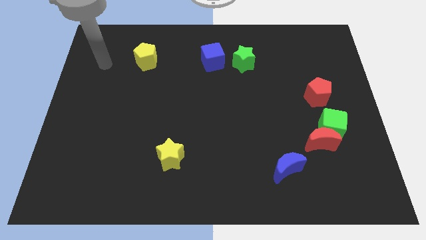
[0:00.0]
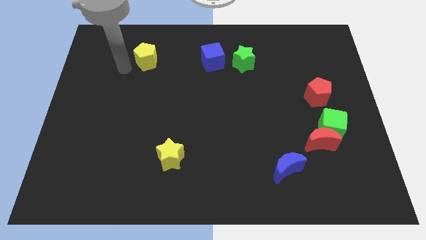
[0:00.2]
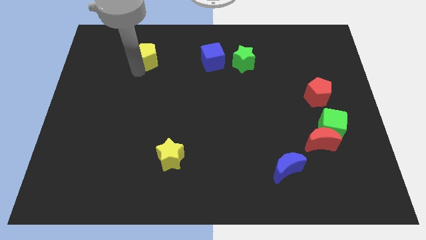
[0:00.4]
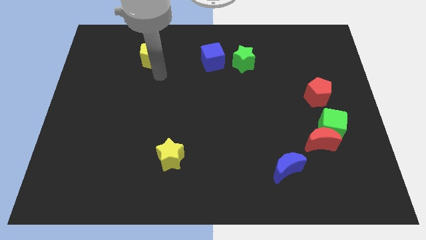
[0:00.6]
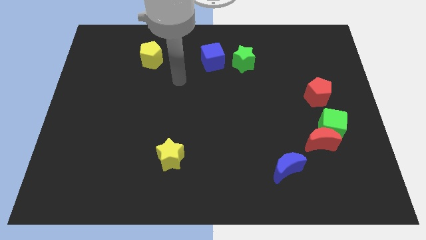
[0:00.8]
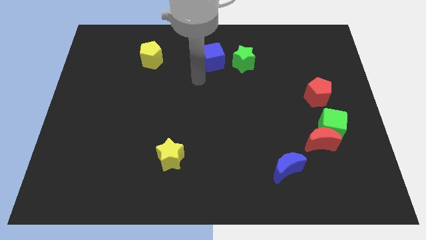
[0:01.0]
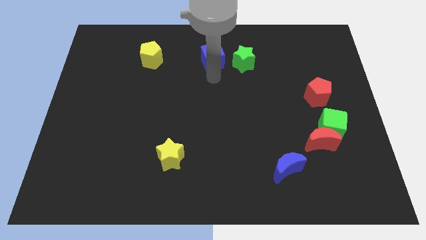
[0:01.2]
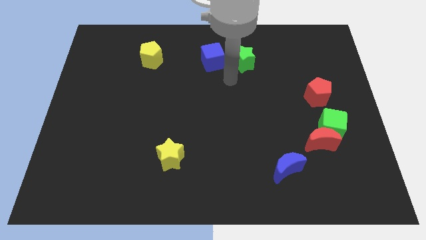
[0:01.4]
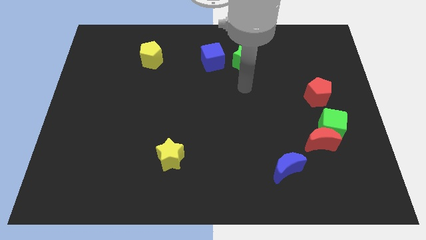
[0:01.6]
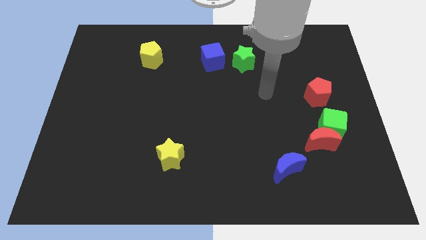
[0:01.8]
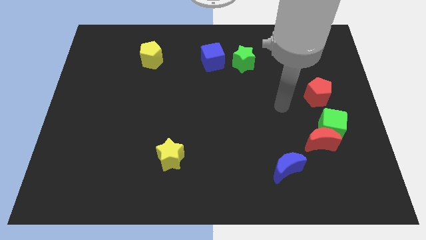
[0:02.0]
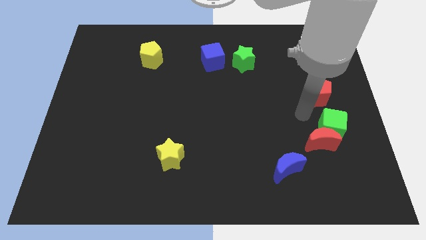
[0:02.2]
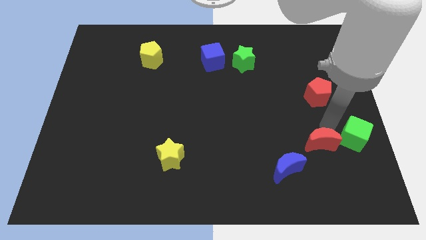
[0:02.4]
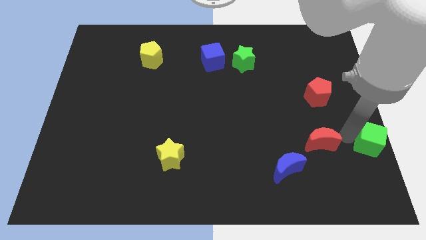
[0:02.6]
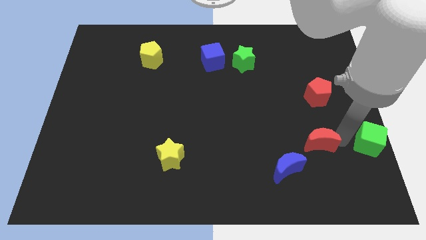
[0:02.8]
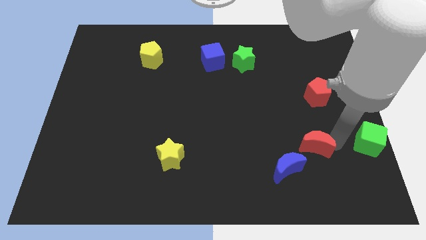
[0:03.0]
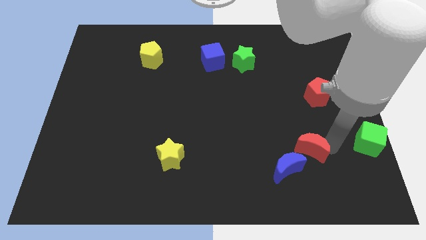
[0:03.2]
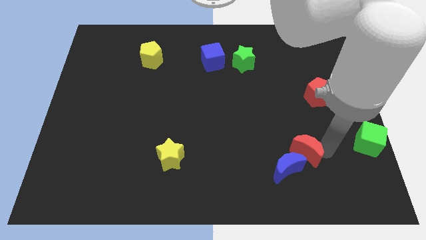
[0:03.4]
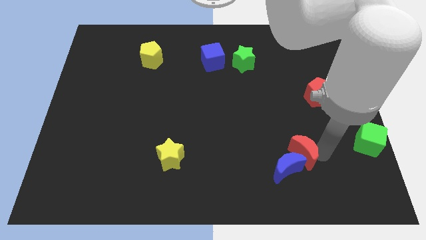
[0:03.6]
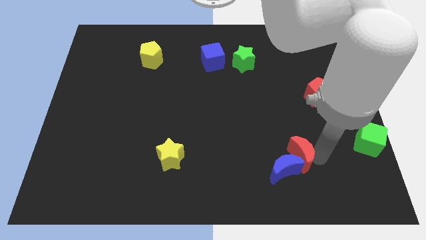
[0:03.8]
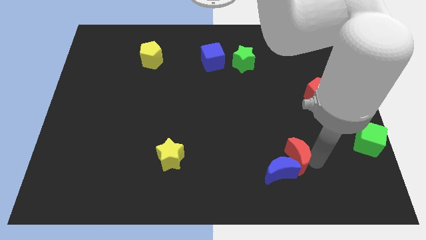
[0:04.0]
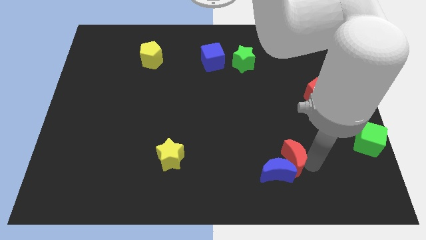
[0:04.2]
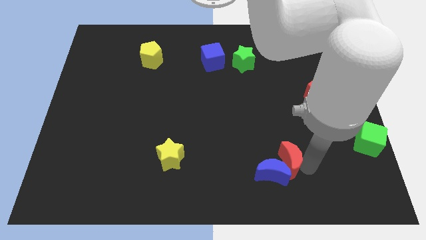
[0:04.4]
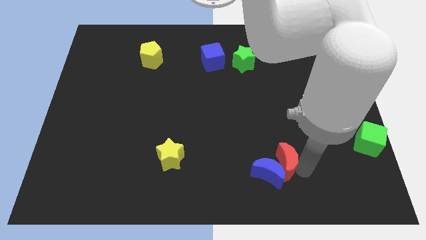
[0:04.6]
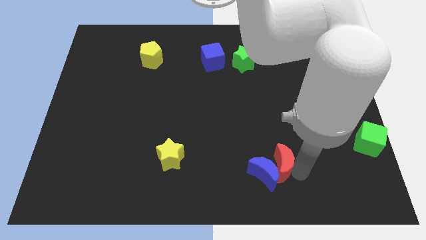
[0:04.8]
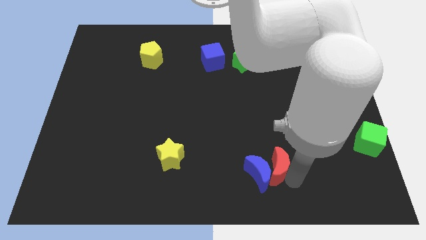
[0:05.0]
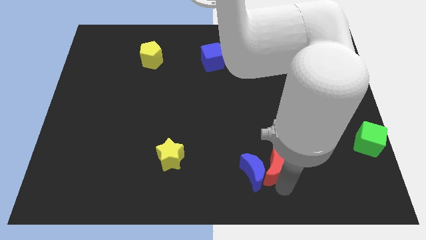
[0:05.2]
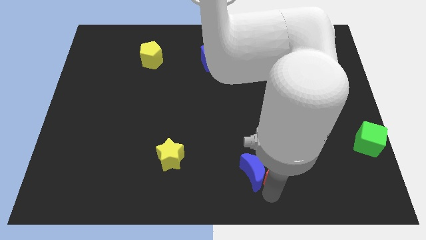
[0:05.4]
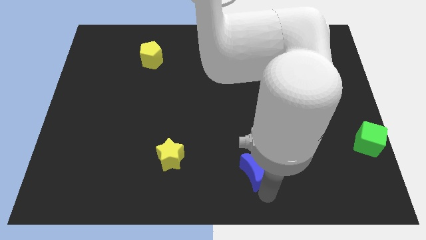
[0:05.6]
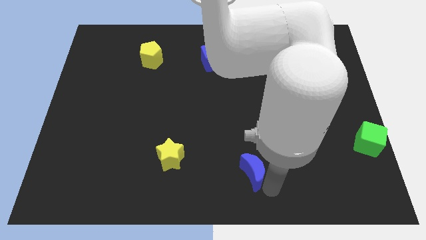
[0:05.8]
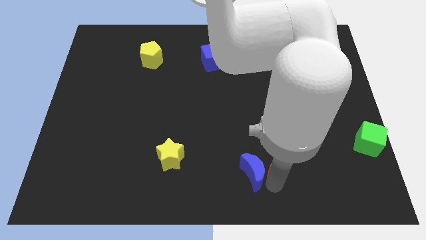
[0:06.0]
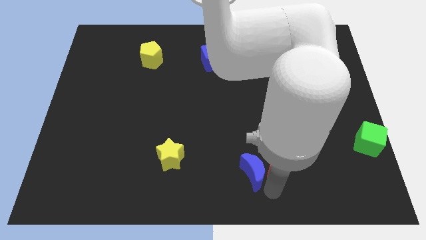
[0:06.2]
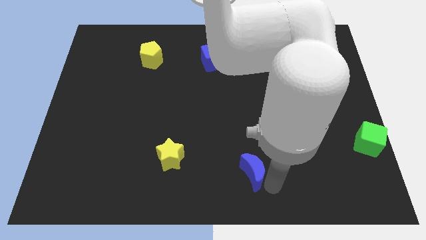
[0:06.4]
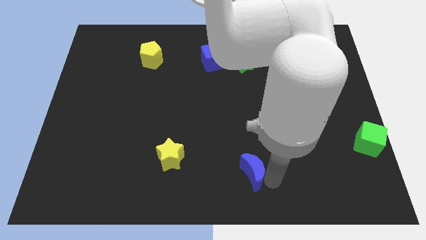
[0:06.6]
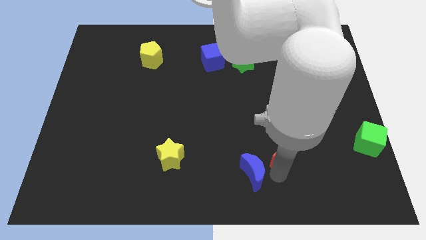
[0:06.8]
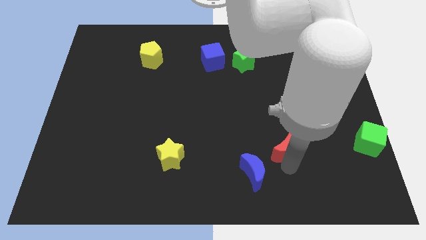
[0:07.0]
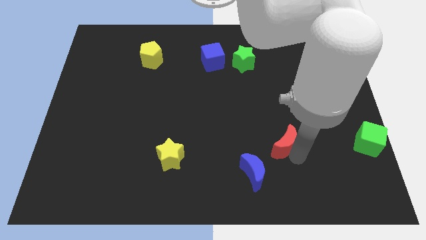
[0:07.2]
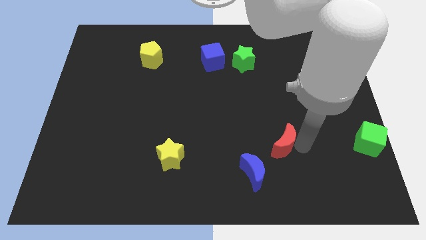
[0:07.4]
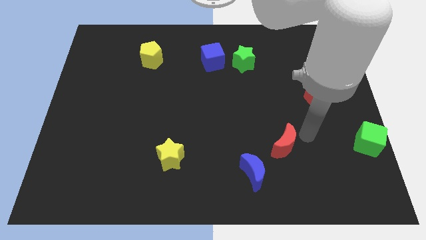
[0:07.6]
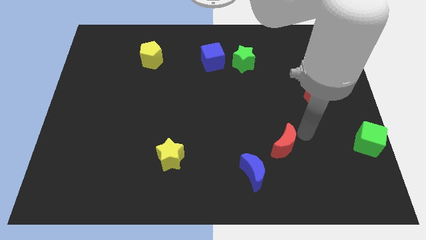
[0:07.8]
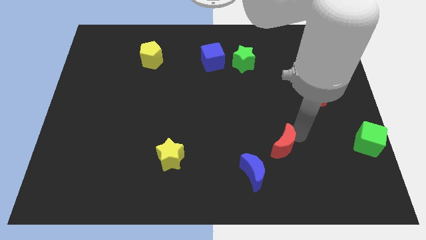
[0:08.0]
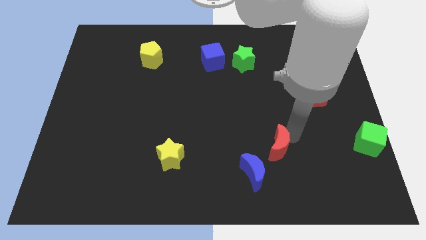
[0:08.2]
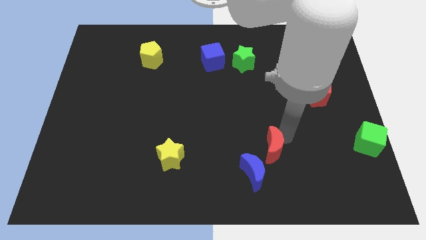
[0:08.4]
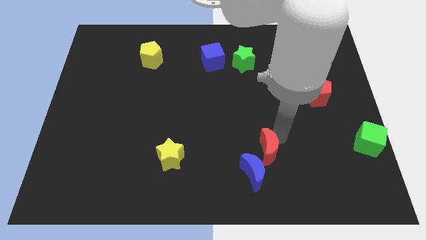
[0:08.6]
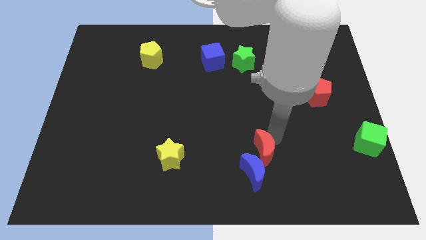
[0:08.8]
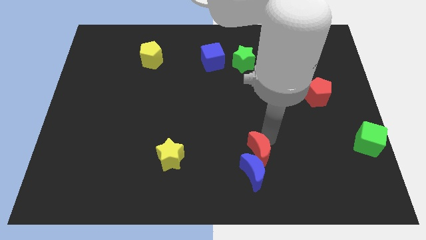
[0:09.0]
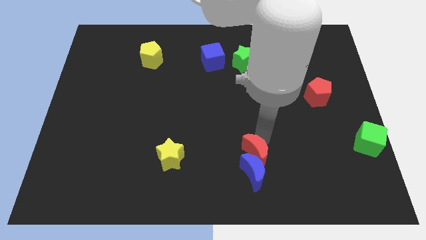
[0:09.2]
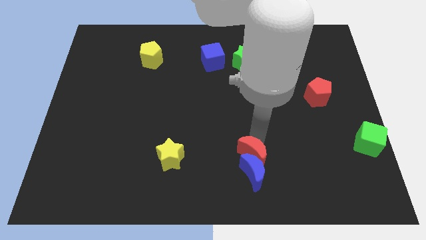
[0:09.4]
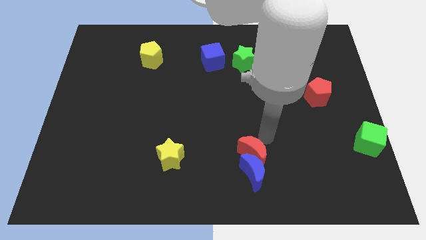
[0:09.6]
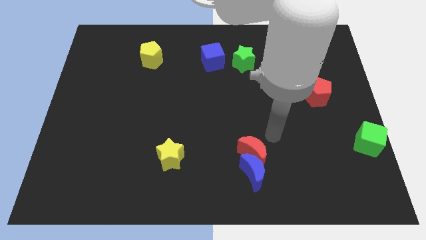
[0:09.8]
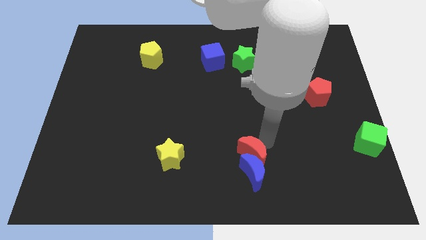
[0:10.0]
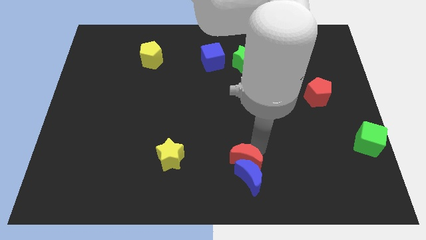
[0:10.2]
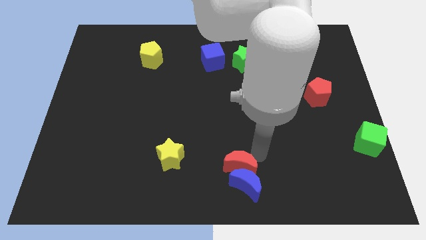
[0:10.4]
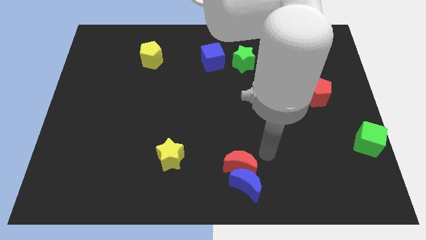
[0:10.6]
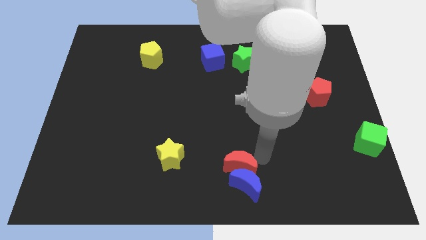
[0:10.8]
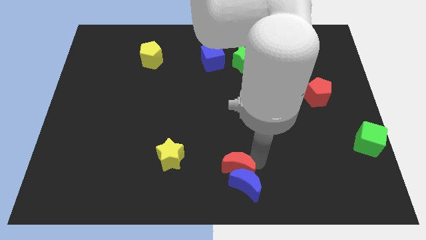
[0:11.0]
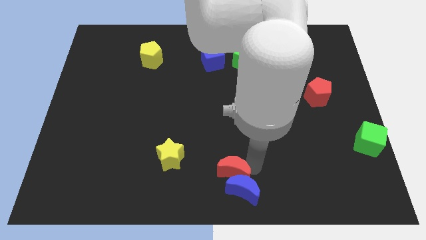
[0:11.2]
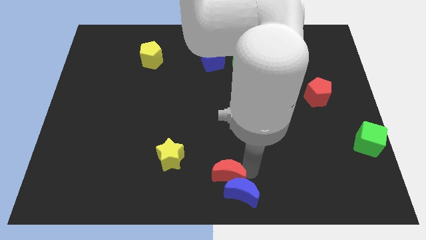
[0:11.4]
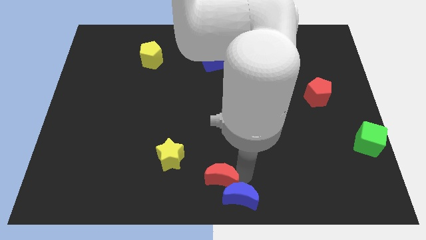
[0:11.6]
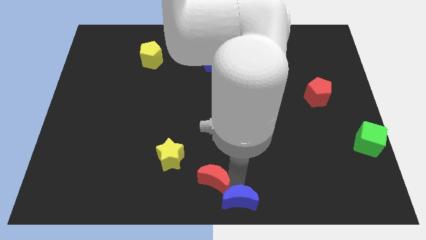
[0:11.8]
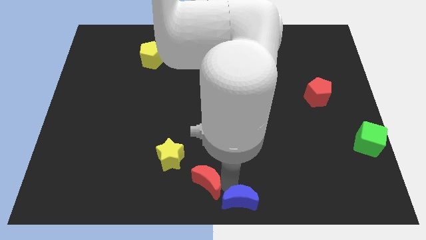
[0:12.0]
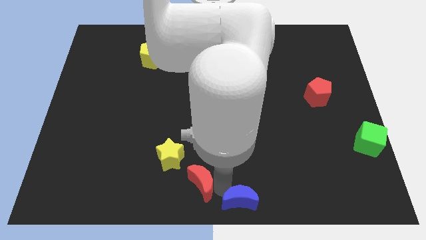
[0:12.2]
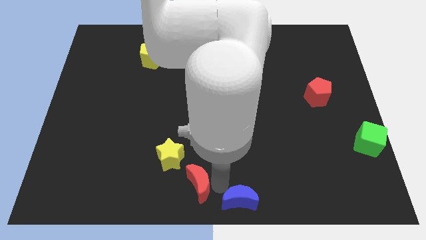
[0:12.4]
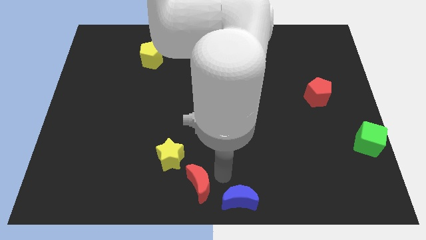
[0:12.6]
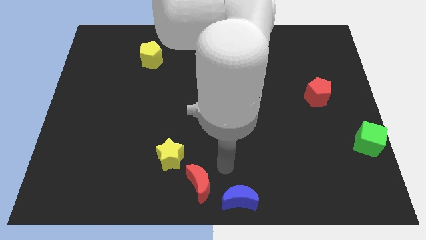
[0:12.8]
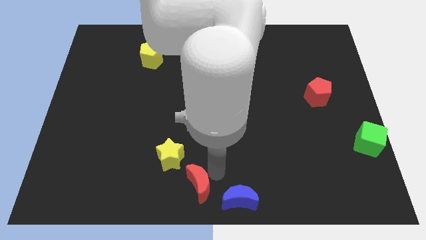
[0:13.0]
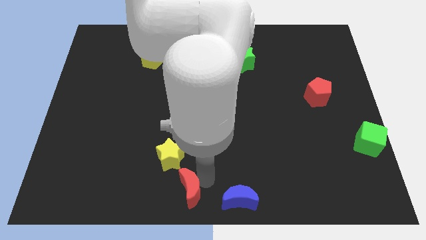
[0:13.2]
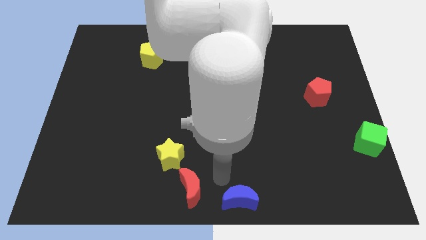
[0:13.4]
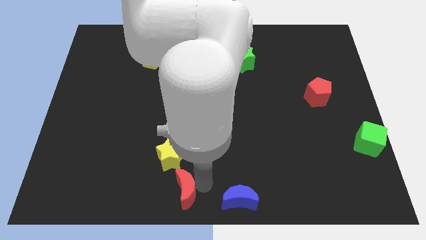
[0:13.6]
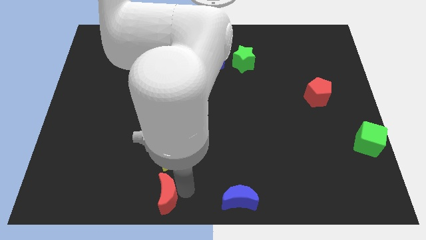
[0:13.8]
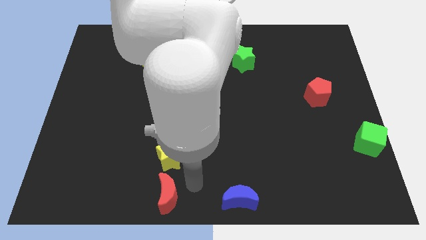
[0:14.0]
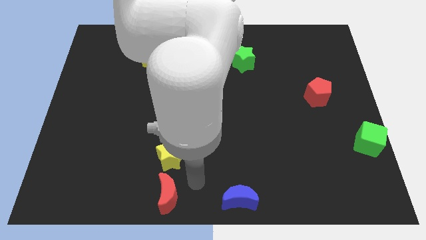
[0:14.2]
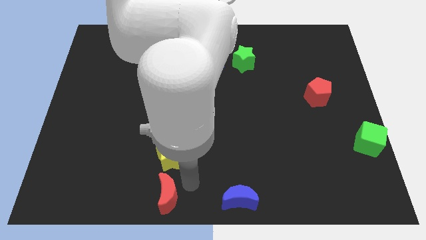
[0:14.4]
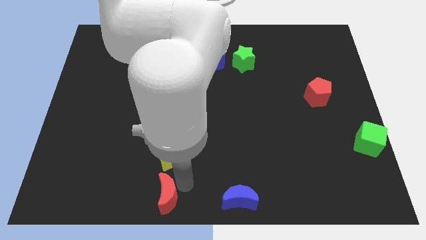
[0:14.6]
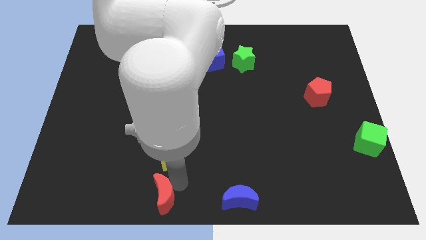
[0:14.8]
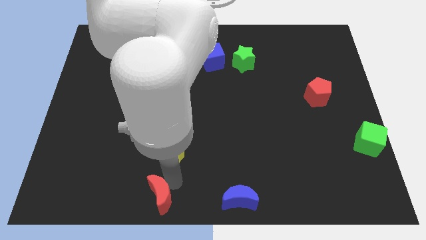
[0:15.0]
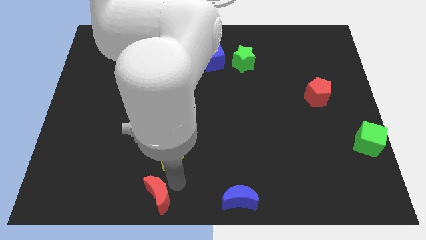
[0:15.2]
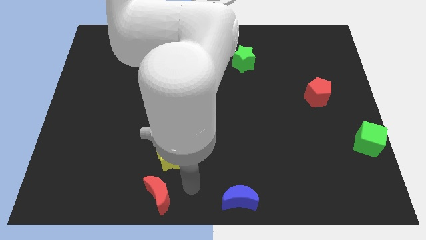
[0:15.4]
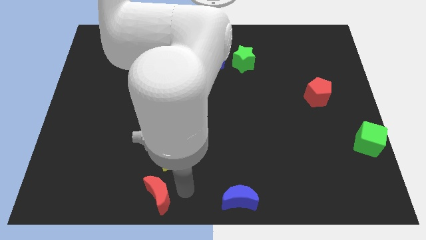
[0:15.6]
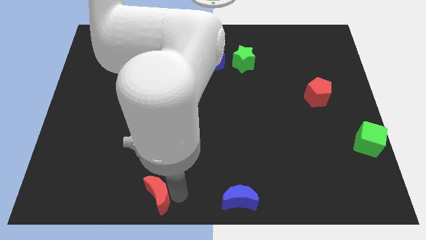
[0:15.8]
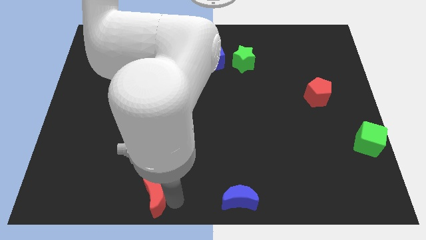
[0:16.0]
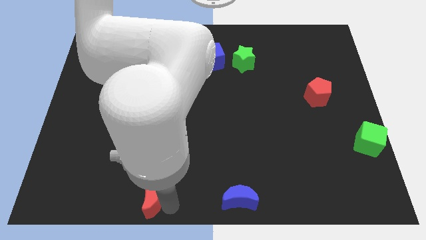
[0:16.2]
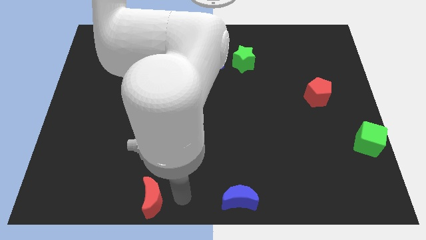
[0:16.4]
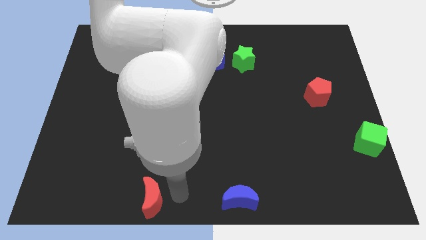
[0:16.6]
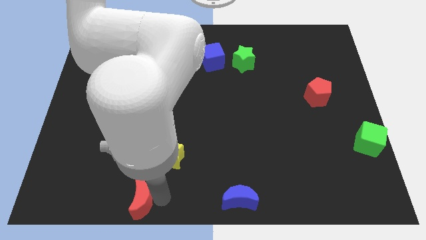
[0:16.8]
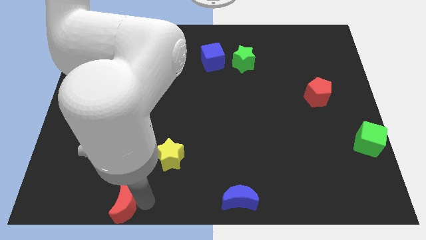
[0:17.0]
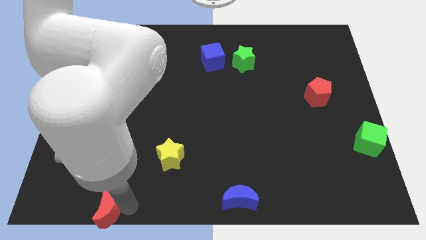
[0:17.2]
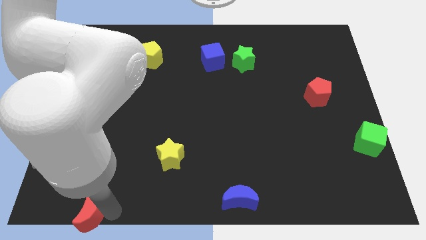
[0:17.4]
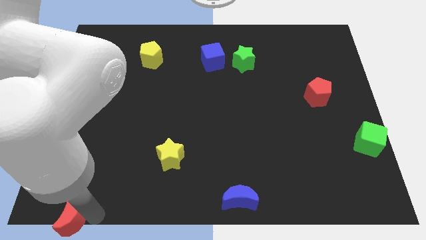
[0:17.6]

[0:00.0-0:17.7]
move the red moon to the bottom left corner
